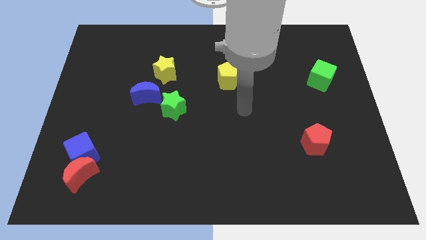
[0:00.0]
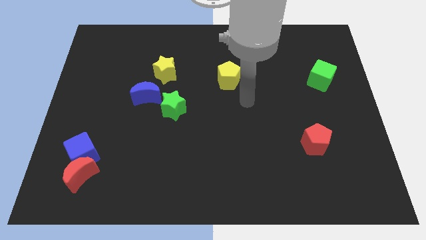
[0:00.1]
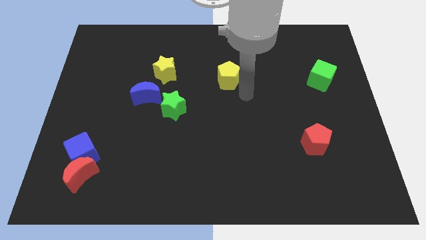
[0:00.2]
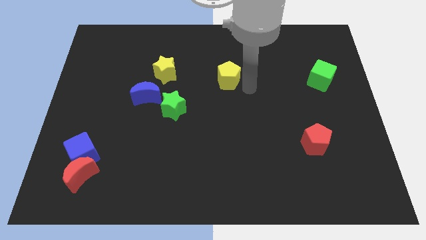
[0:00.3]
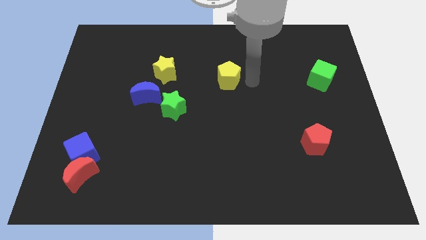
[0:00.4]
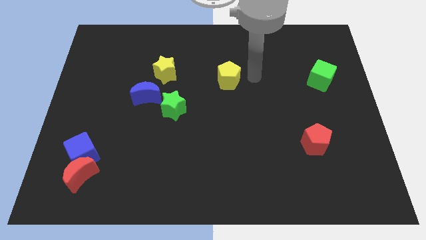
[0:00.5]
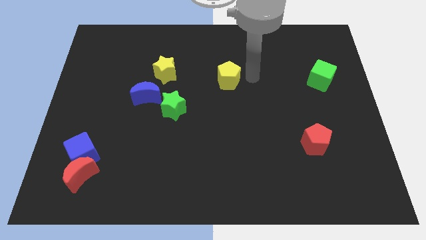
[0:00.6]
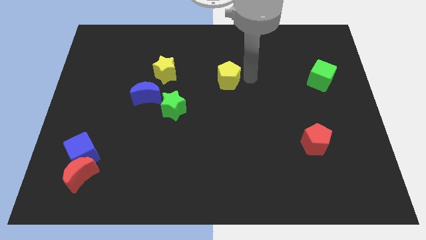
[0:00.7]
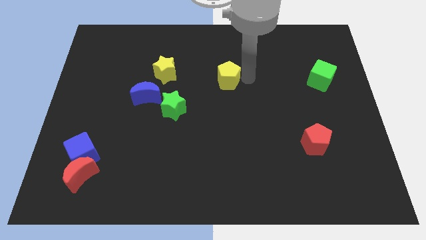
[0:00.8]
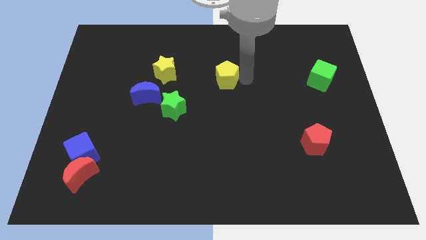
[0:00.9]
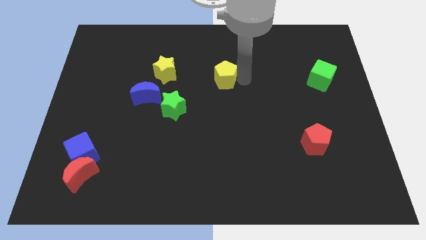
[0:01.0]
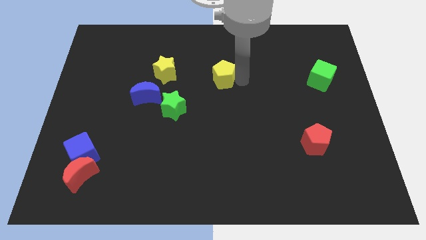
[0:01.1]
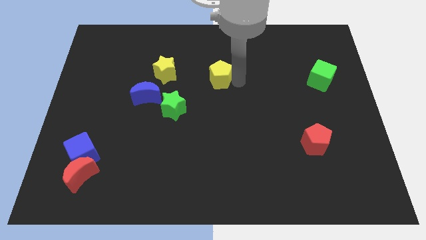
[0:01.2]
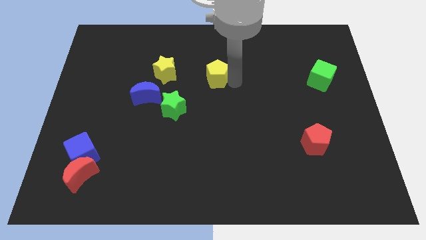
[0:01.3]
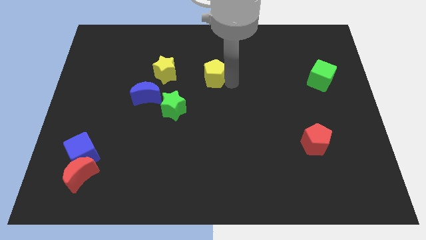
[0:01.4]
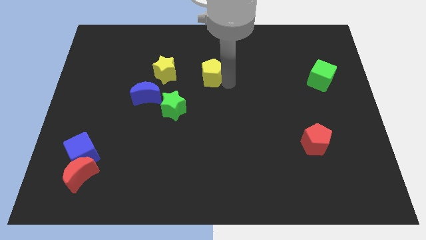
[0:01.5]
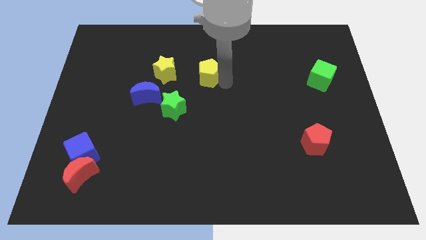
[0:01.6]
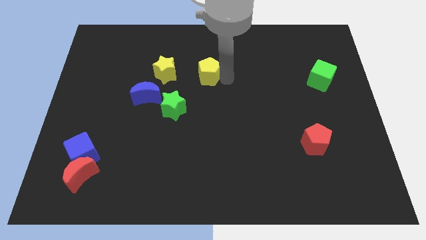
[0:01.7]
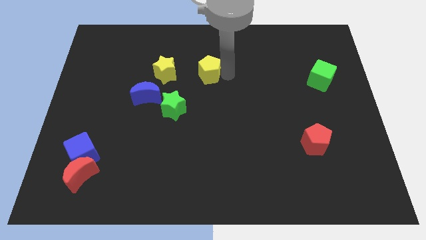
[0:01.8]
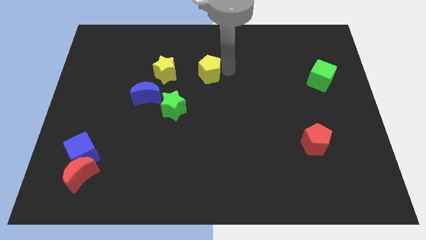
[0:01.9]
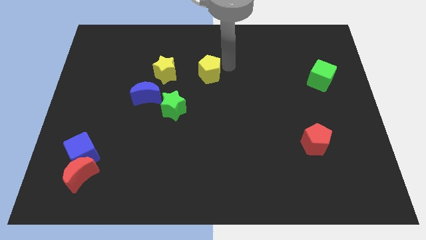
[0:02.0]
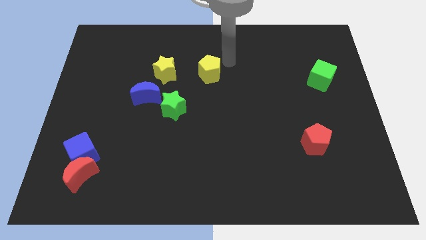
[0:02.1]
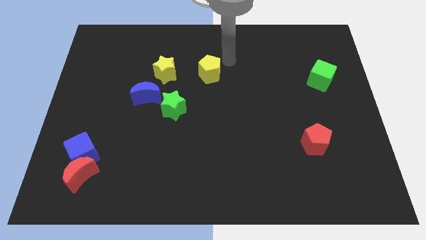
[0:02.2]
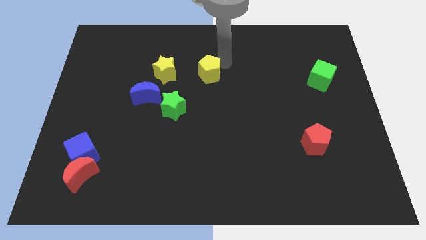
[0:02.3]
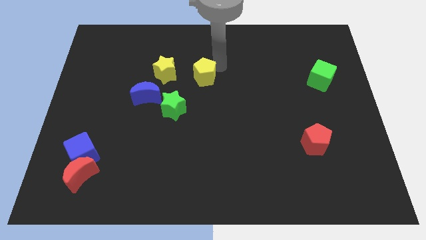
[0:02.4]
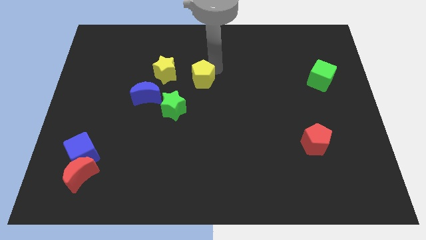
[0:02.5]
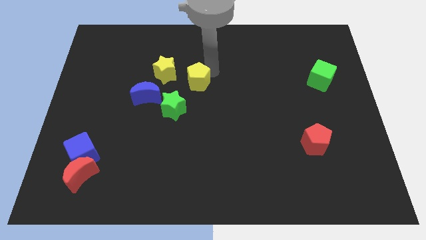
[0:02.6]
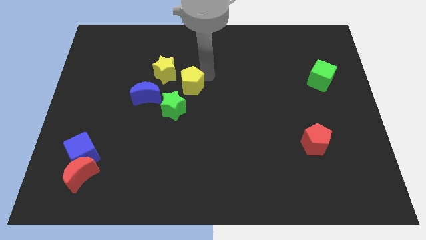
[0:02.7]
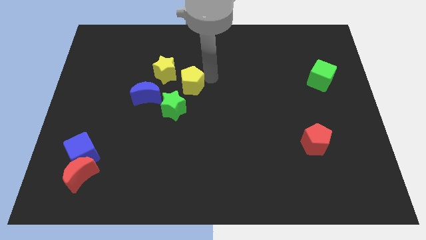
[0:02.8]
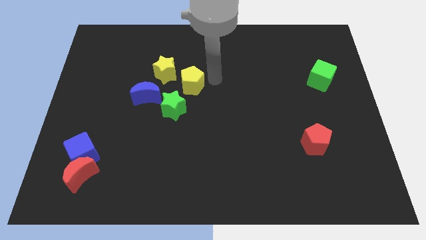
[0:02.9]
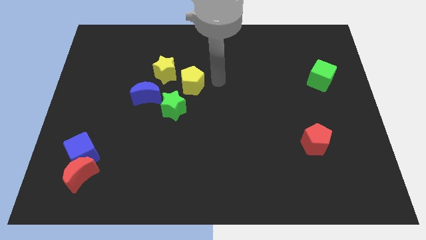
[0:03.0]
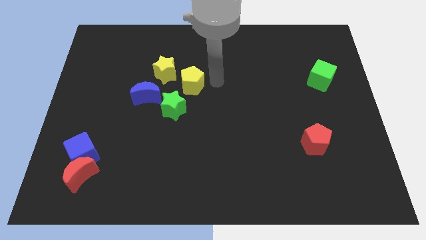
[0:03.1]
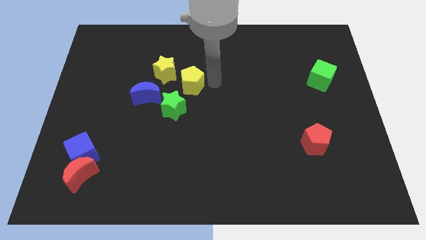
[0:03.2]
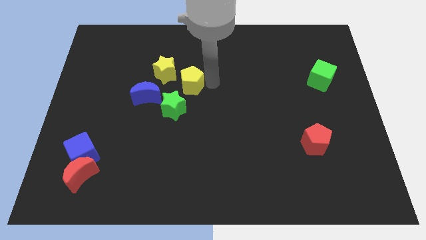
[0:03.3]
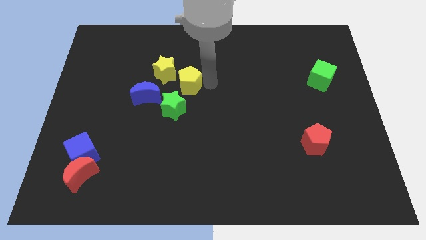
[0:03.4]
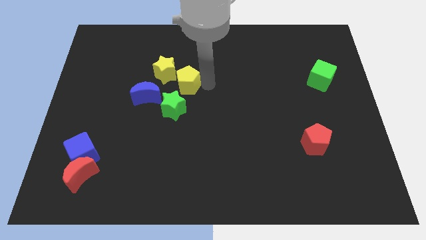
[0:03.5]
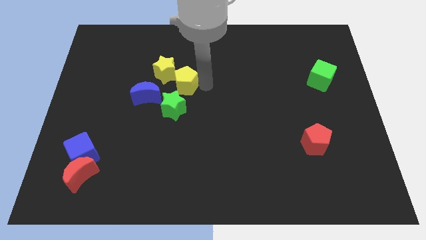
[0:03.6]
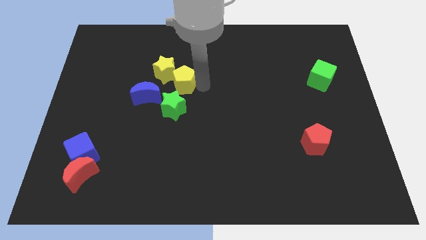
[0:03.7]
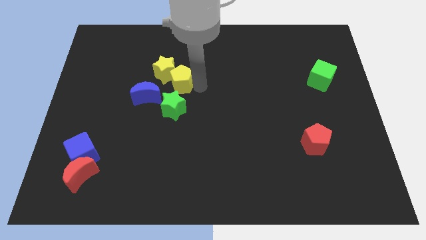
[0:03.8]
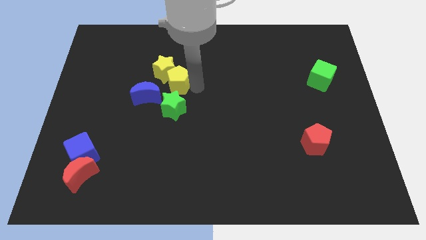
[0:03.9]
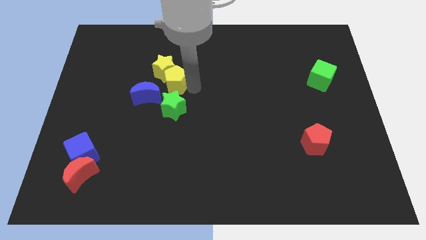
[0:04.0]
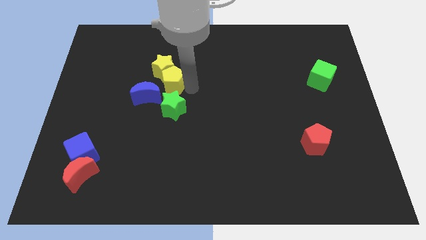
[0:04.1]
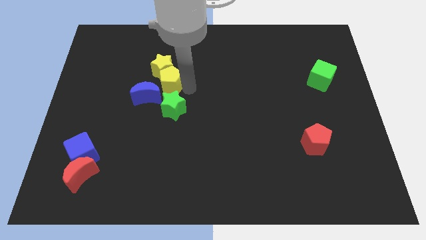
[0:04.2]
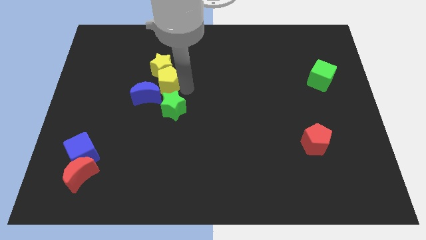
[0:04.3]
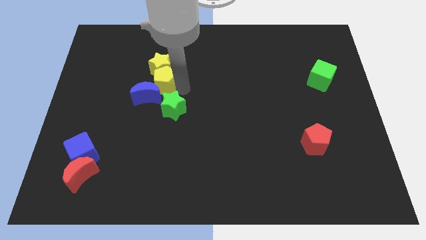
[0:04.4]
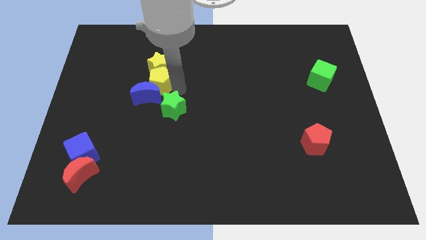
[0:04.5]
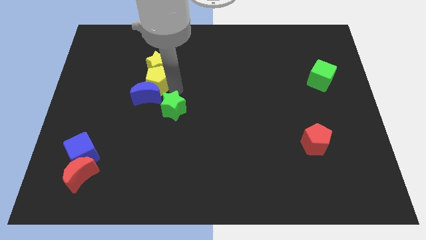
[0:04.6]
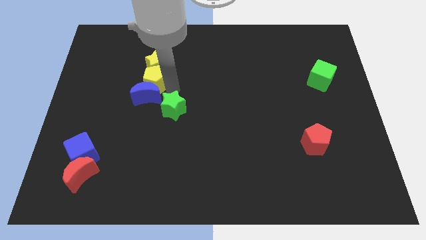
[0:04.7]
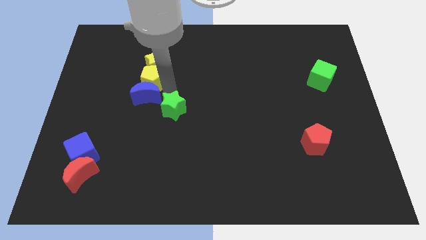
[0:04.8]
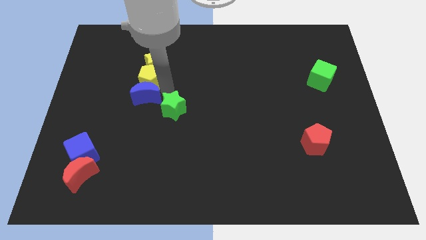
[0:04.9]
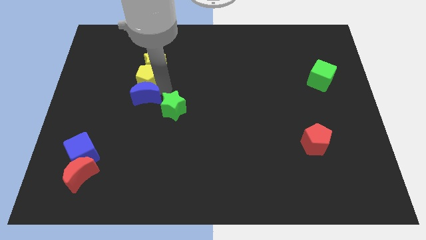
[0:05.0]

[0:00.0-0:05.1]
move the yellow pentagon to the left

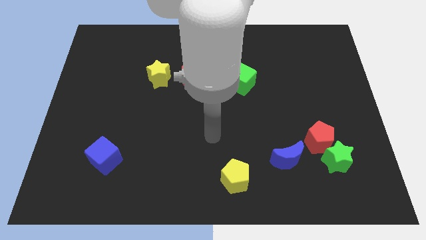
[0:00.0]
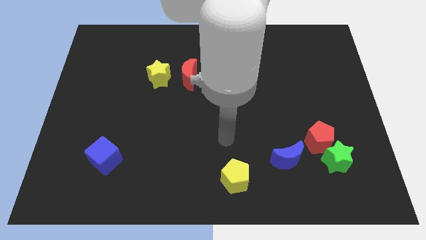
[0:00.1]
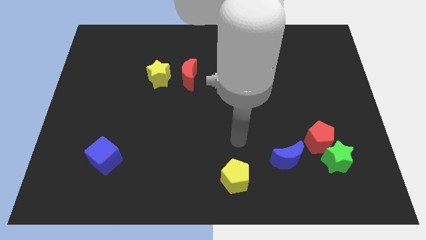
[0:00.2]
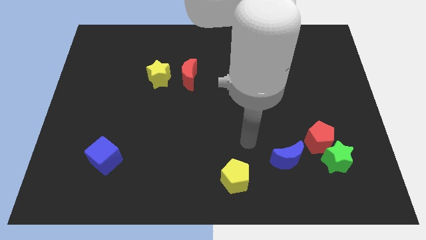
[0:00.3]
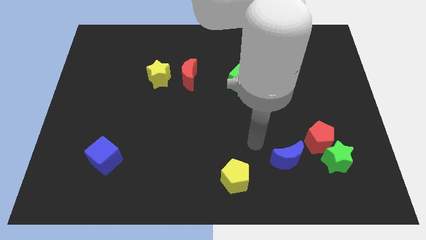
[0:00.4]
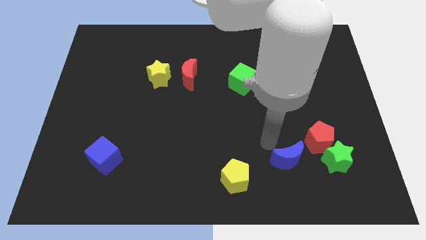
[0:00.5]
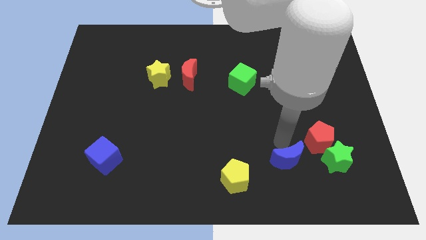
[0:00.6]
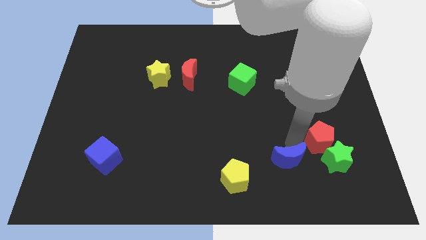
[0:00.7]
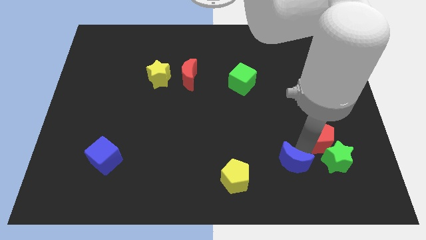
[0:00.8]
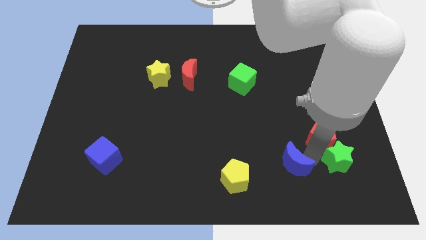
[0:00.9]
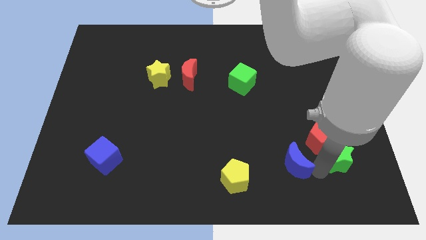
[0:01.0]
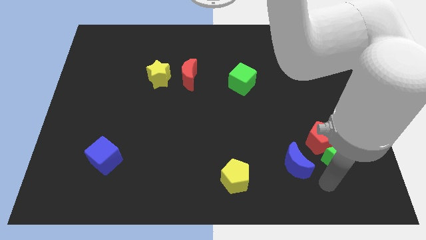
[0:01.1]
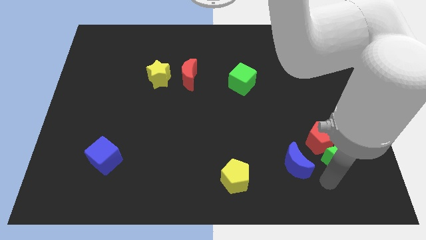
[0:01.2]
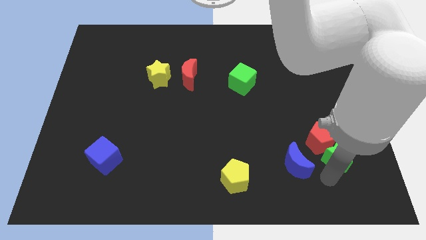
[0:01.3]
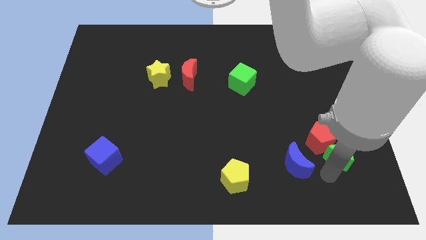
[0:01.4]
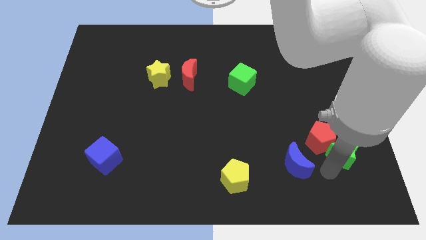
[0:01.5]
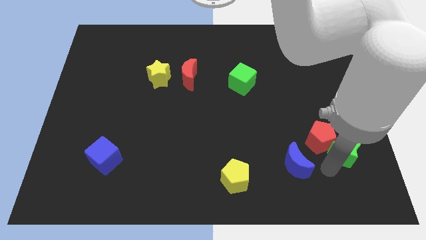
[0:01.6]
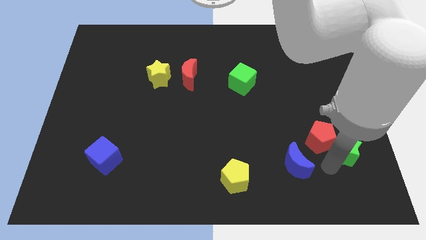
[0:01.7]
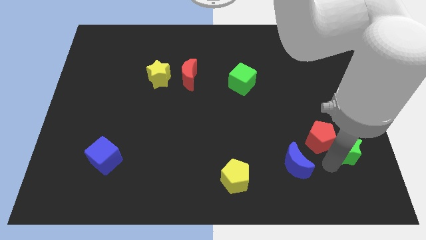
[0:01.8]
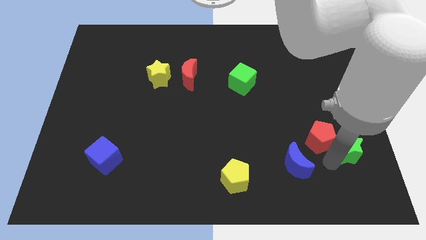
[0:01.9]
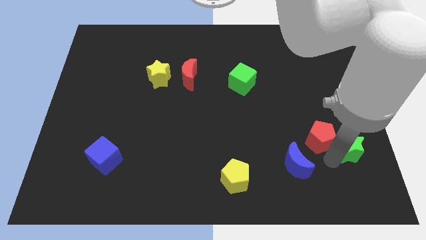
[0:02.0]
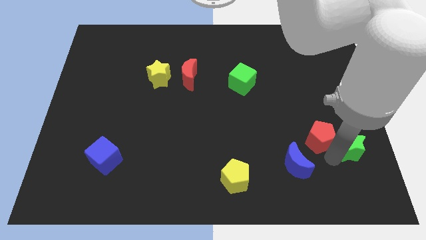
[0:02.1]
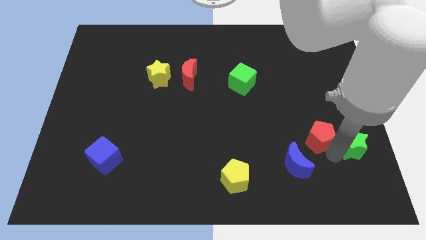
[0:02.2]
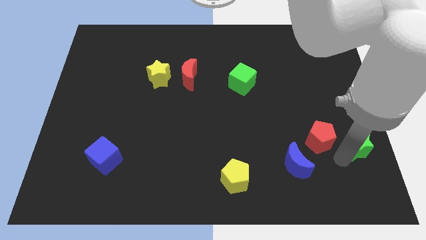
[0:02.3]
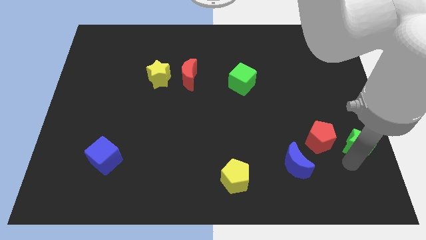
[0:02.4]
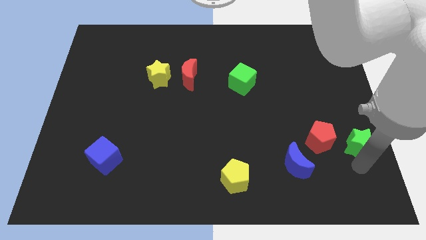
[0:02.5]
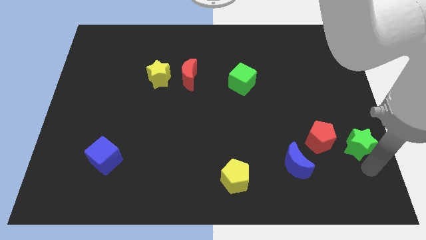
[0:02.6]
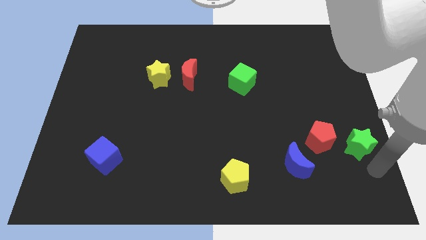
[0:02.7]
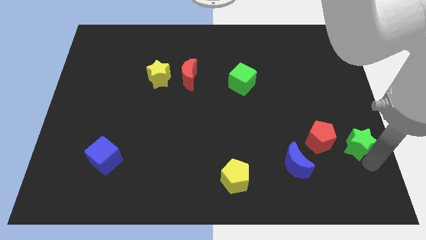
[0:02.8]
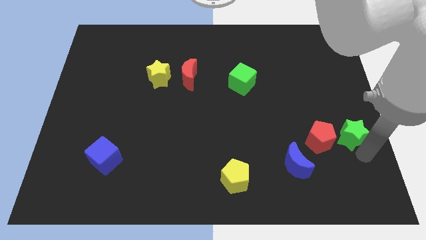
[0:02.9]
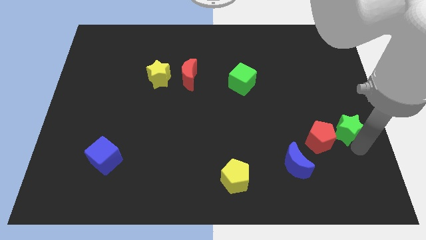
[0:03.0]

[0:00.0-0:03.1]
move the green star a bit up
